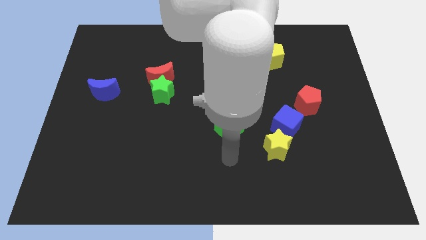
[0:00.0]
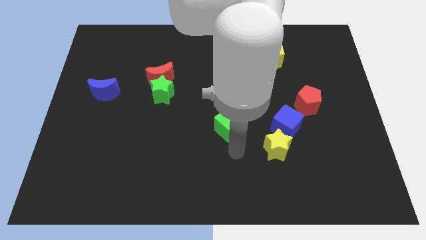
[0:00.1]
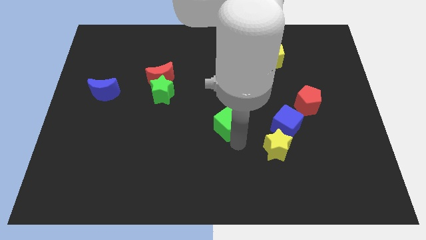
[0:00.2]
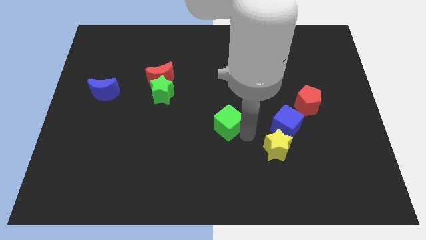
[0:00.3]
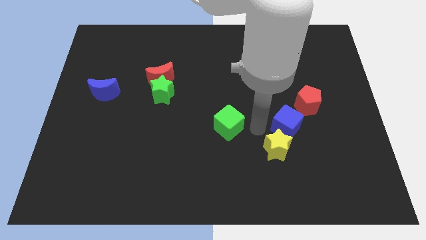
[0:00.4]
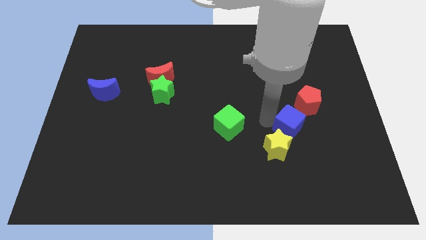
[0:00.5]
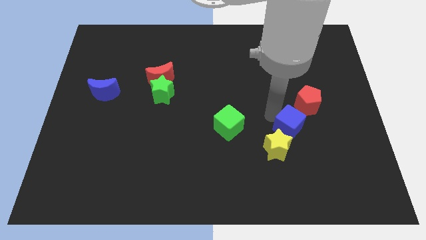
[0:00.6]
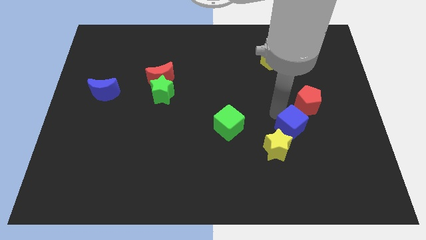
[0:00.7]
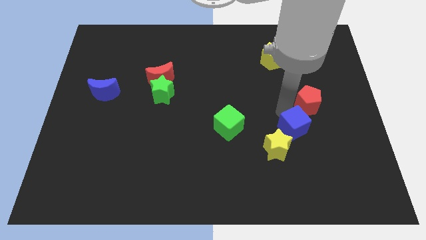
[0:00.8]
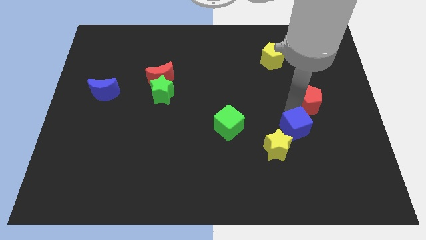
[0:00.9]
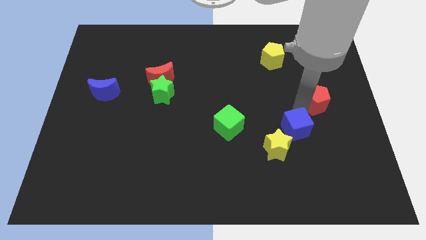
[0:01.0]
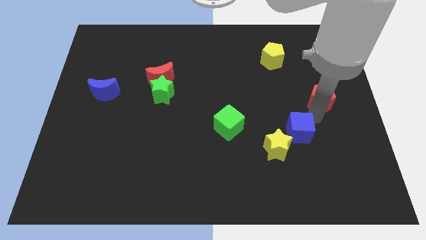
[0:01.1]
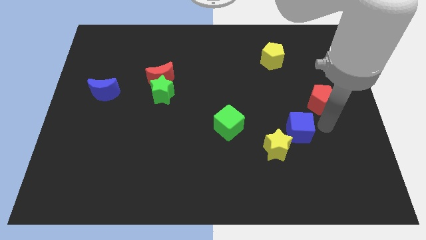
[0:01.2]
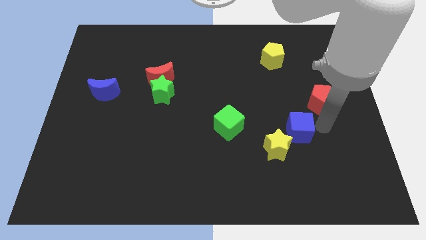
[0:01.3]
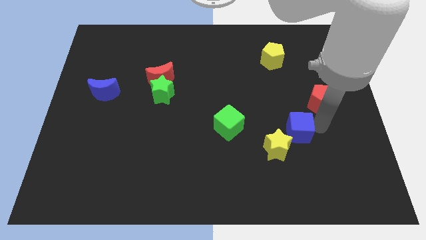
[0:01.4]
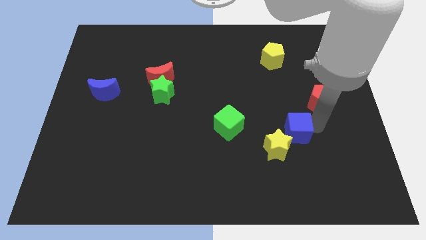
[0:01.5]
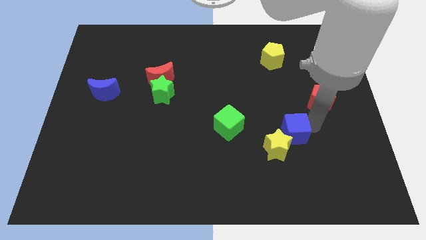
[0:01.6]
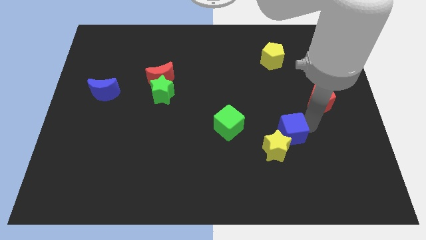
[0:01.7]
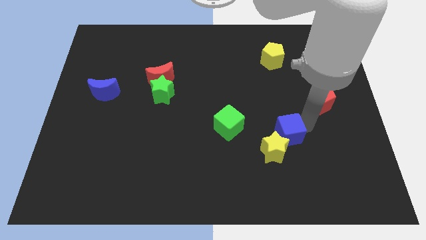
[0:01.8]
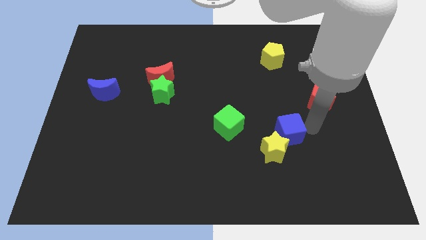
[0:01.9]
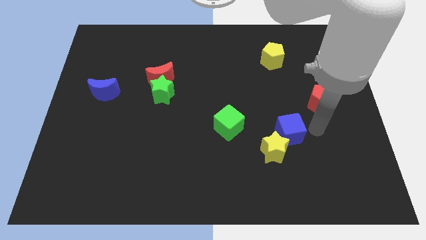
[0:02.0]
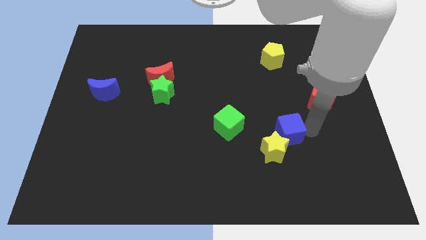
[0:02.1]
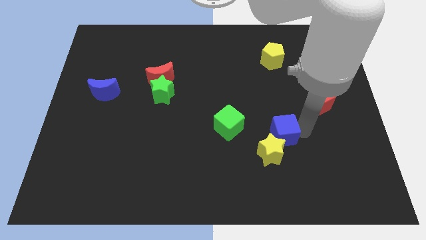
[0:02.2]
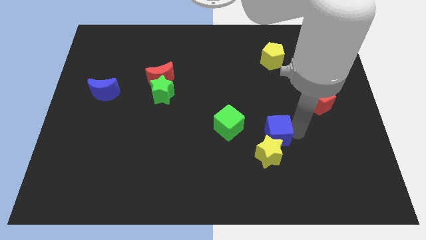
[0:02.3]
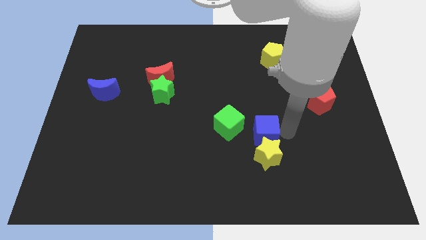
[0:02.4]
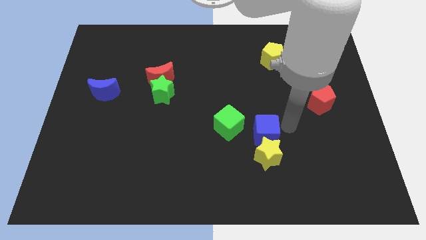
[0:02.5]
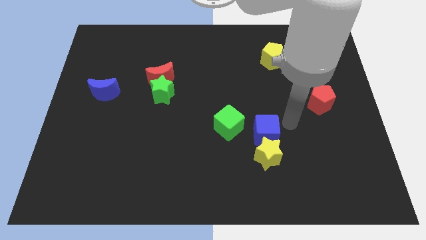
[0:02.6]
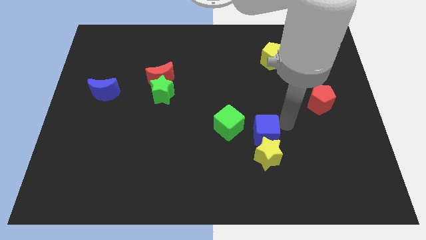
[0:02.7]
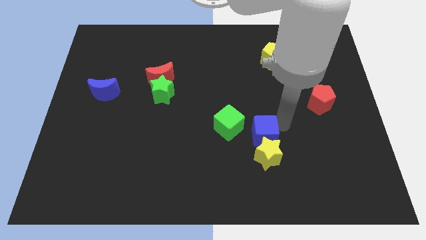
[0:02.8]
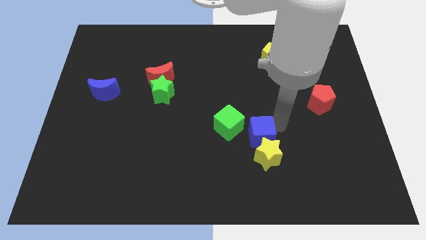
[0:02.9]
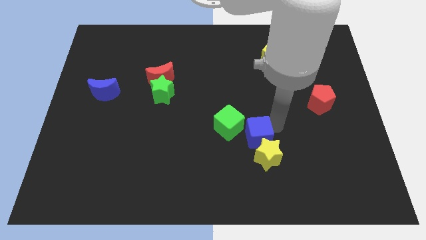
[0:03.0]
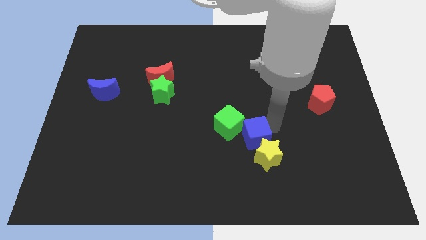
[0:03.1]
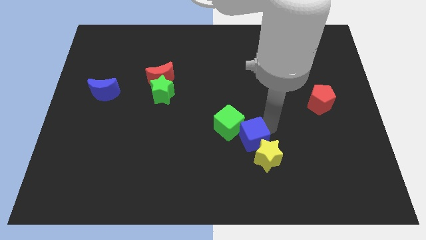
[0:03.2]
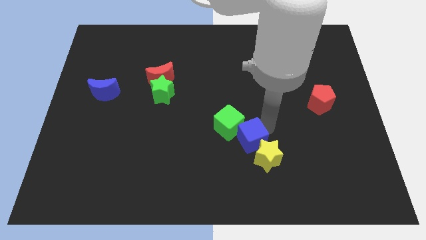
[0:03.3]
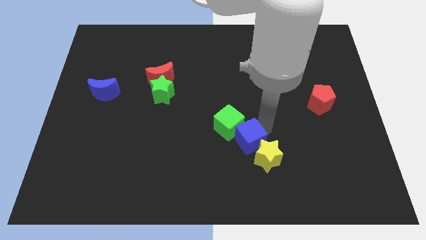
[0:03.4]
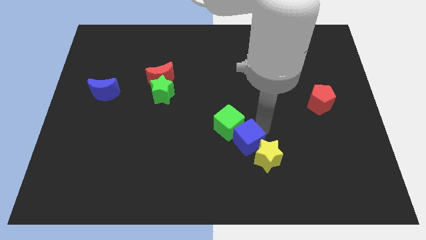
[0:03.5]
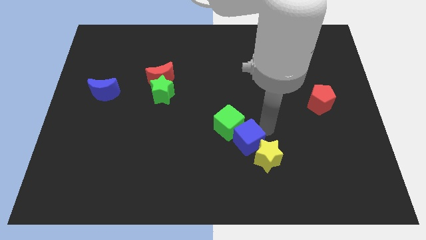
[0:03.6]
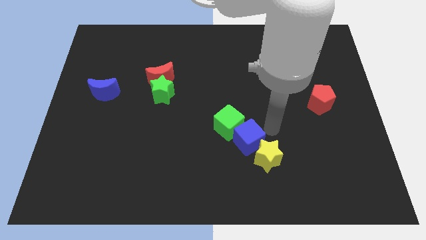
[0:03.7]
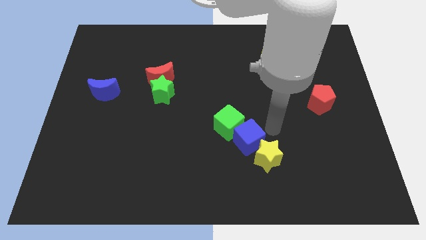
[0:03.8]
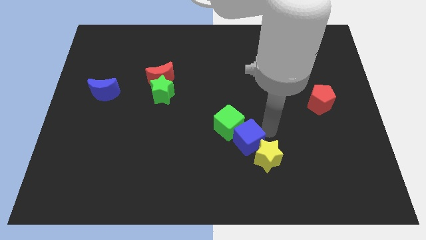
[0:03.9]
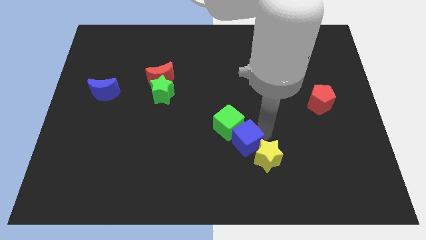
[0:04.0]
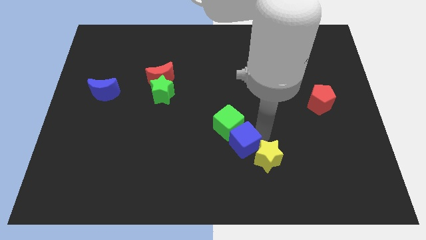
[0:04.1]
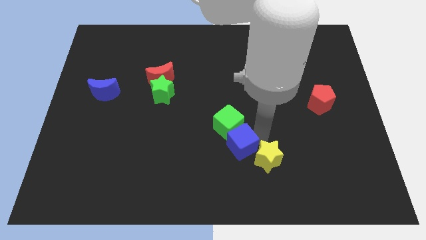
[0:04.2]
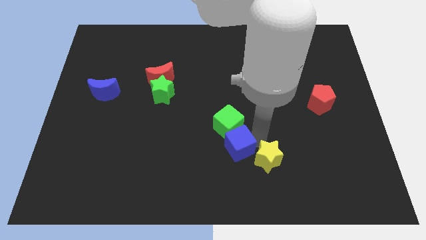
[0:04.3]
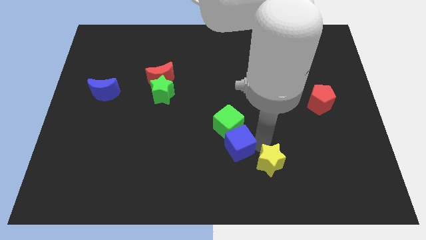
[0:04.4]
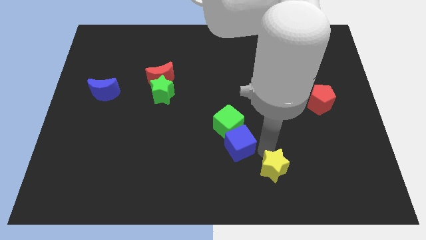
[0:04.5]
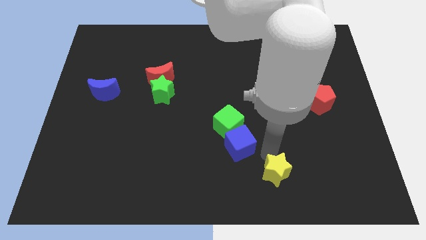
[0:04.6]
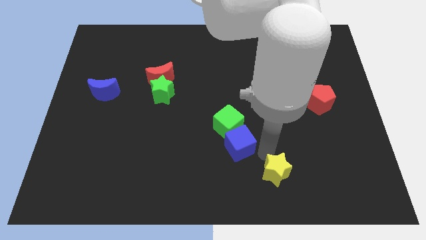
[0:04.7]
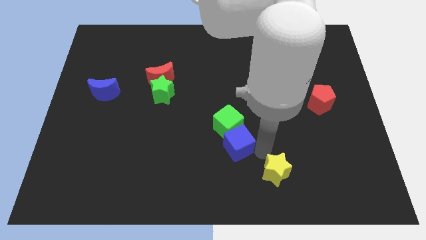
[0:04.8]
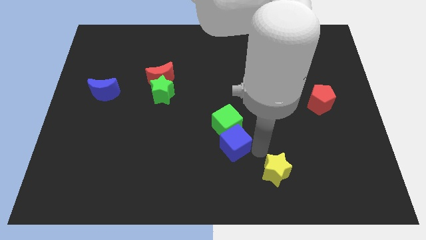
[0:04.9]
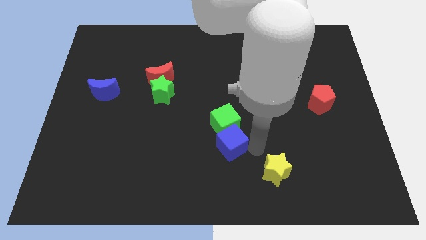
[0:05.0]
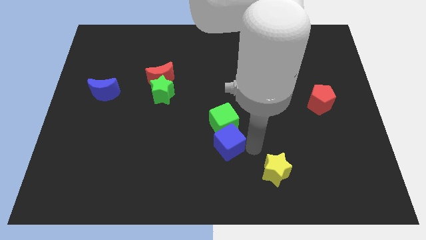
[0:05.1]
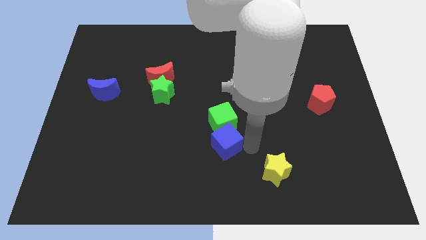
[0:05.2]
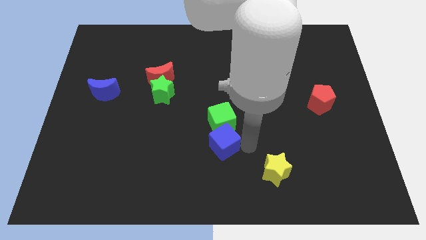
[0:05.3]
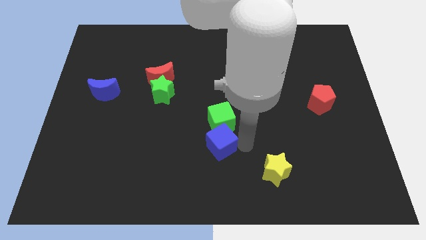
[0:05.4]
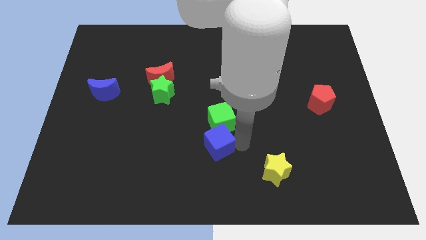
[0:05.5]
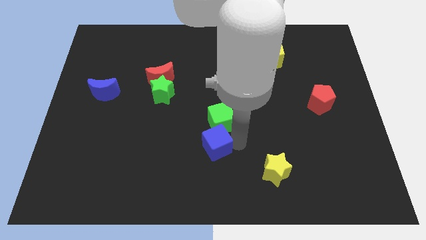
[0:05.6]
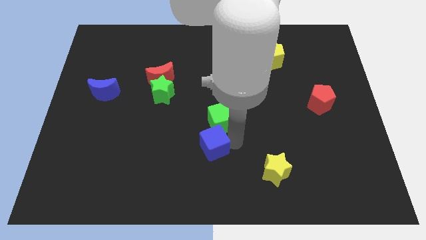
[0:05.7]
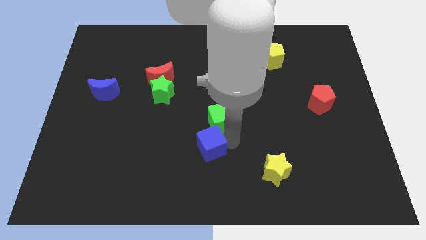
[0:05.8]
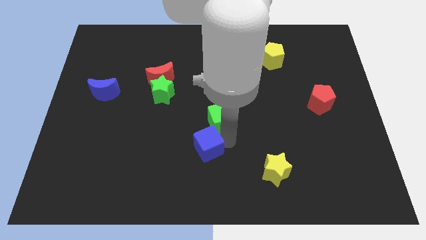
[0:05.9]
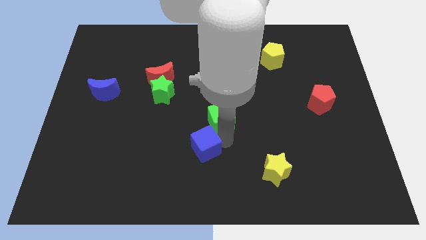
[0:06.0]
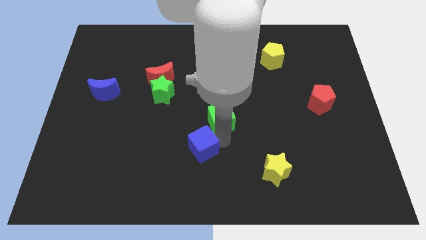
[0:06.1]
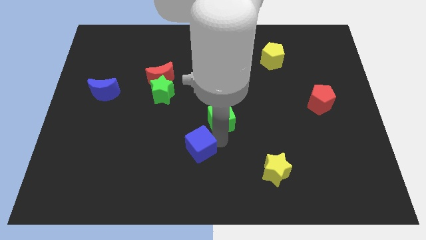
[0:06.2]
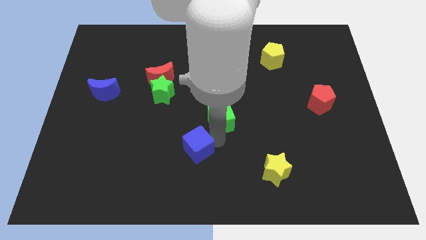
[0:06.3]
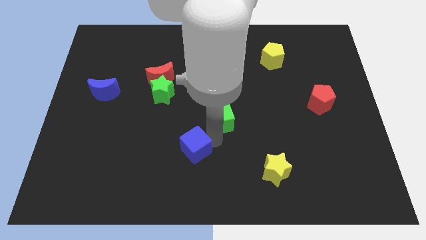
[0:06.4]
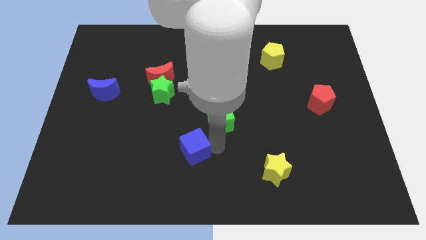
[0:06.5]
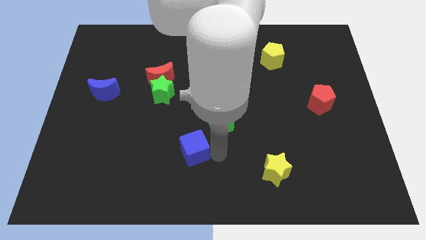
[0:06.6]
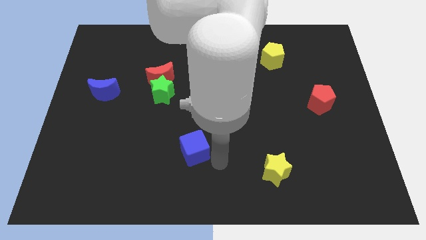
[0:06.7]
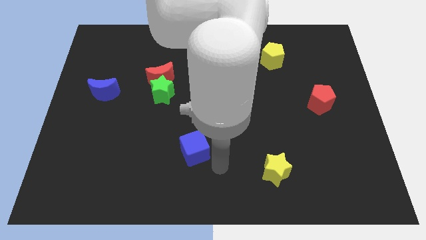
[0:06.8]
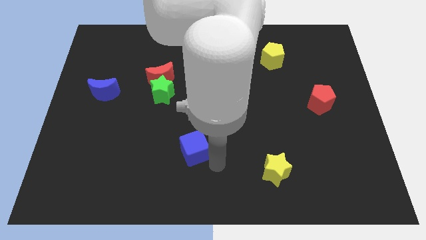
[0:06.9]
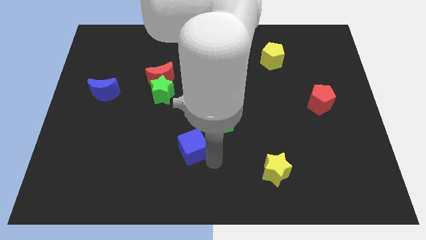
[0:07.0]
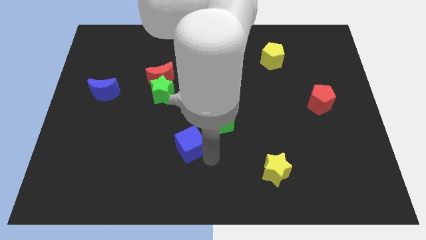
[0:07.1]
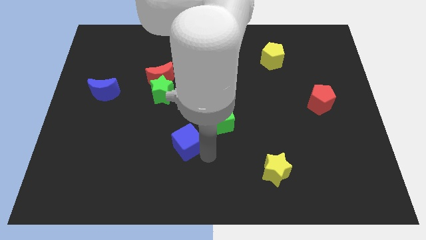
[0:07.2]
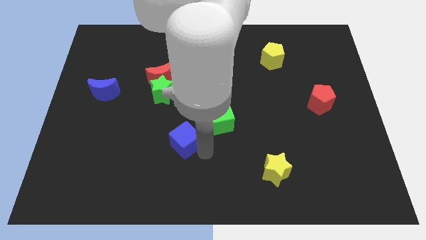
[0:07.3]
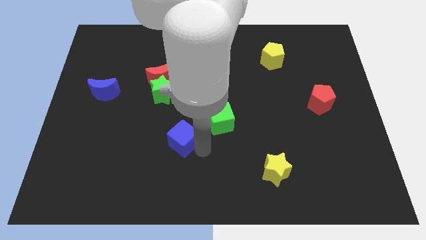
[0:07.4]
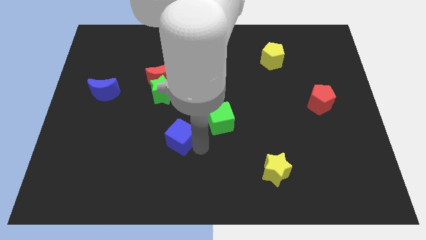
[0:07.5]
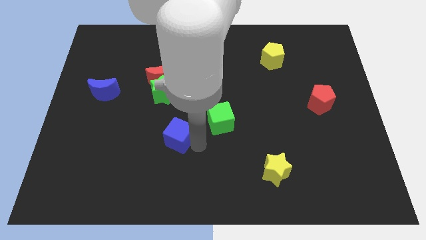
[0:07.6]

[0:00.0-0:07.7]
slide the blue cube to the bottom of the green star
